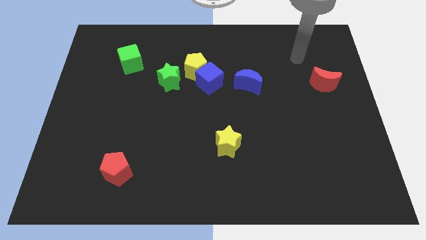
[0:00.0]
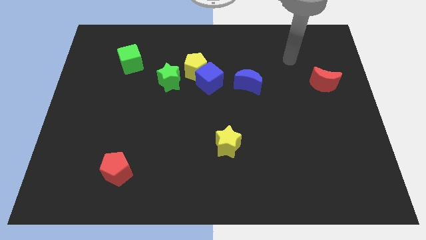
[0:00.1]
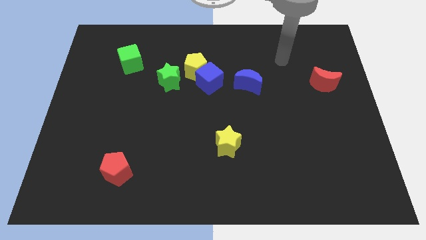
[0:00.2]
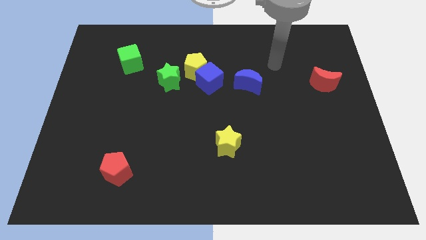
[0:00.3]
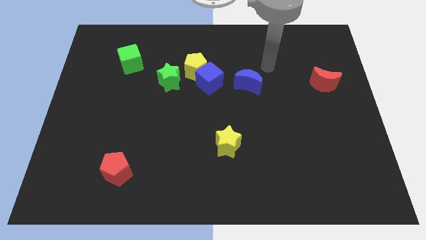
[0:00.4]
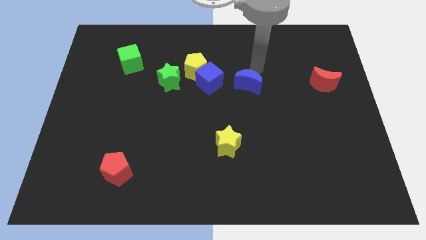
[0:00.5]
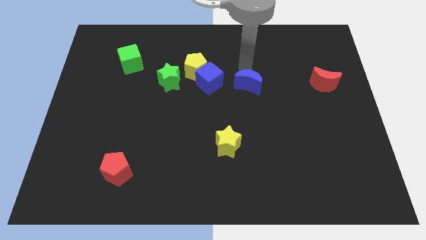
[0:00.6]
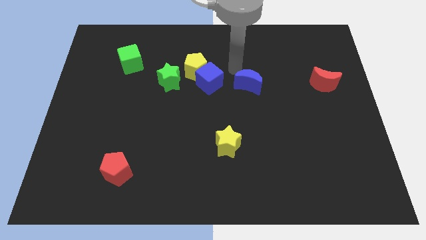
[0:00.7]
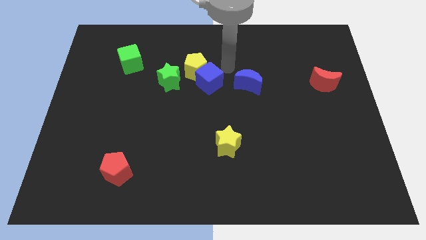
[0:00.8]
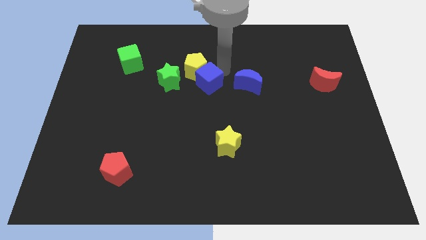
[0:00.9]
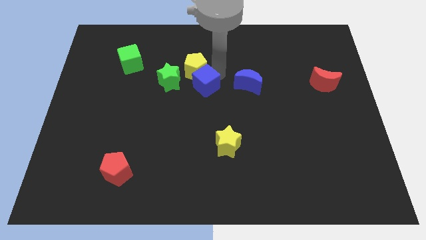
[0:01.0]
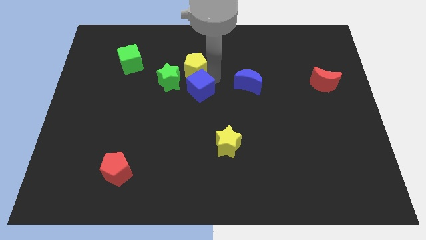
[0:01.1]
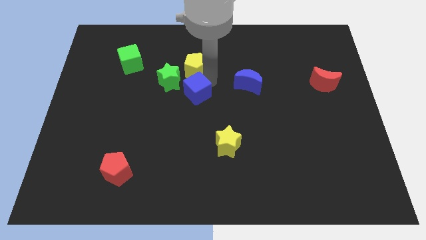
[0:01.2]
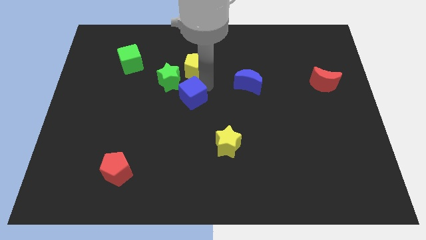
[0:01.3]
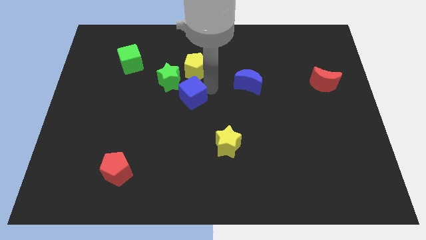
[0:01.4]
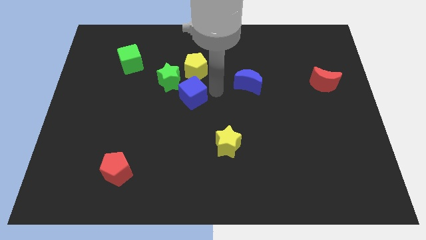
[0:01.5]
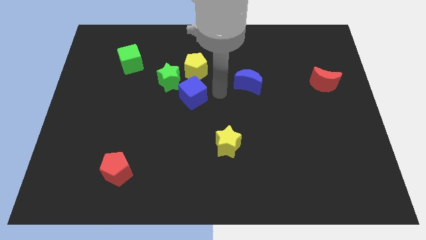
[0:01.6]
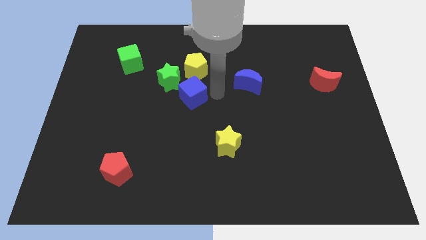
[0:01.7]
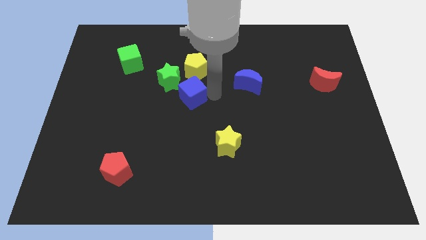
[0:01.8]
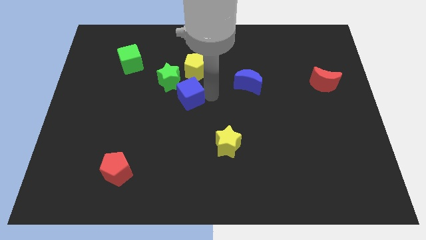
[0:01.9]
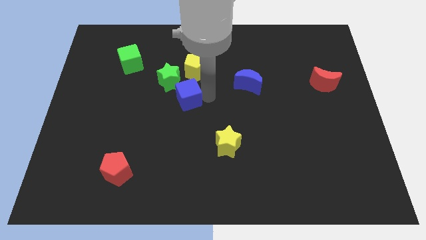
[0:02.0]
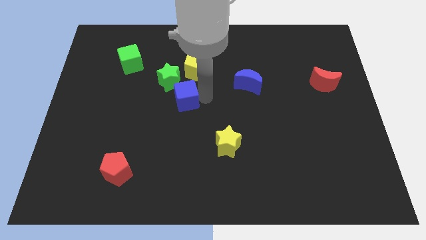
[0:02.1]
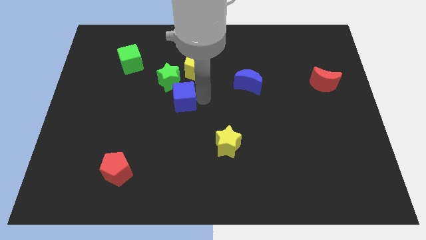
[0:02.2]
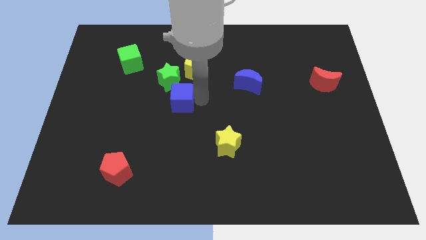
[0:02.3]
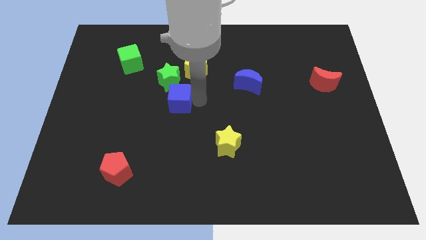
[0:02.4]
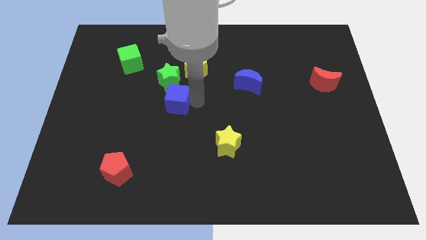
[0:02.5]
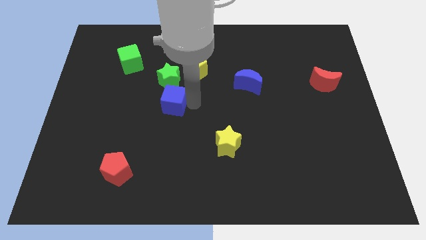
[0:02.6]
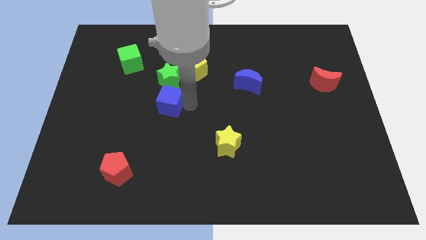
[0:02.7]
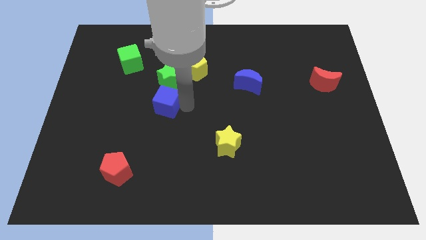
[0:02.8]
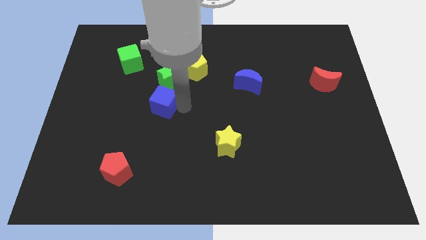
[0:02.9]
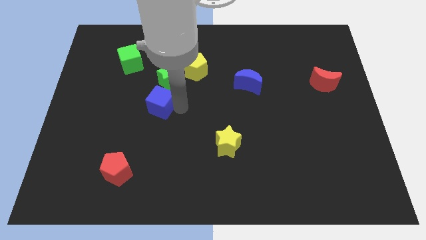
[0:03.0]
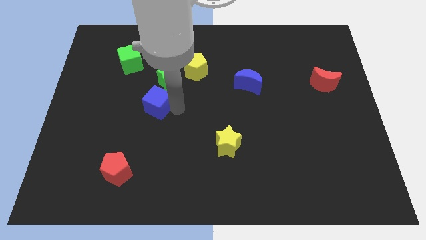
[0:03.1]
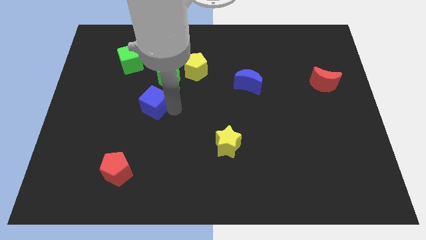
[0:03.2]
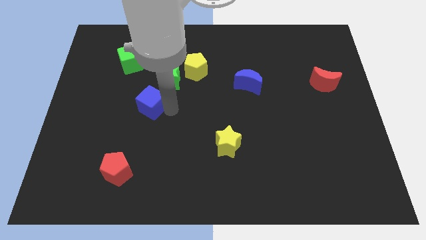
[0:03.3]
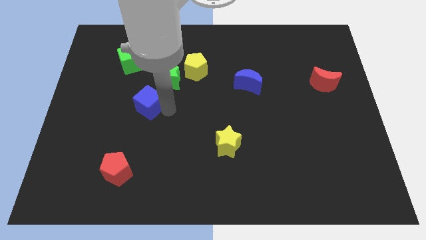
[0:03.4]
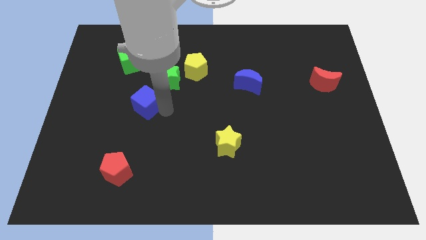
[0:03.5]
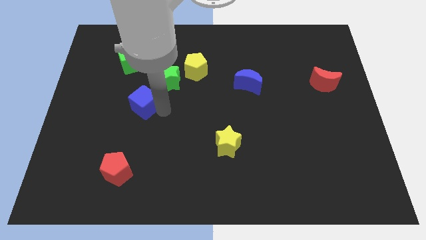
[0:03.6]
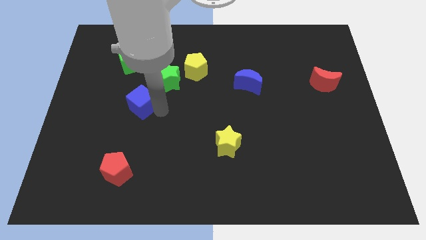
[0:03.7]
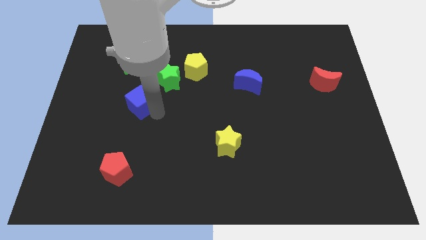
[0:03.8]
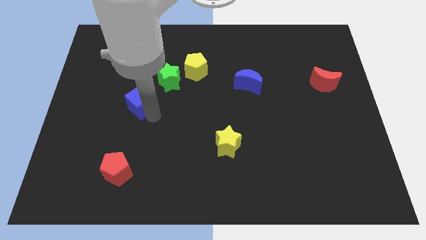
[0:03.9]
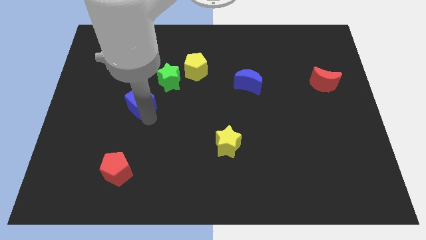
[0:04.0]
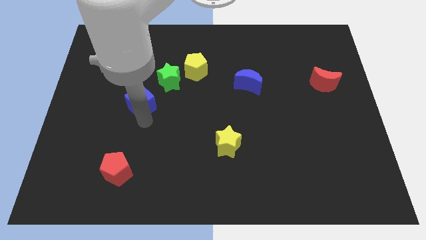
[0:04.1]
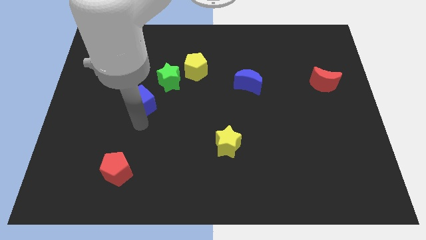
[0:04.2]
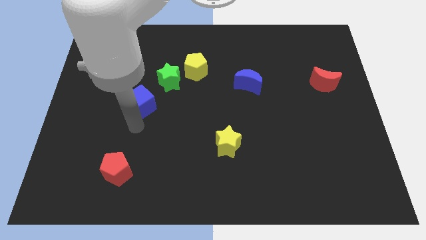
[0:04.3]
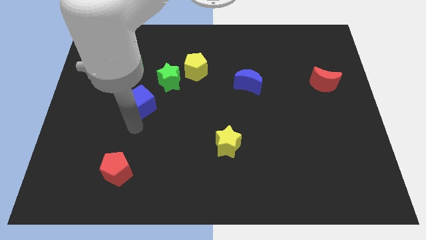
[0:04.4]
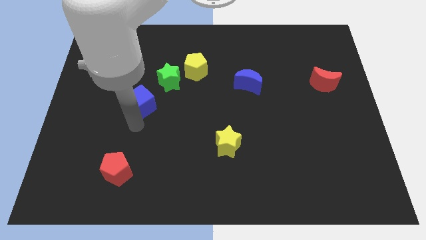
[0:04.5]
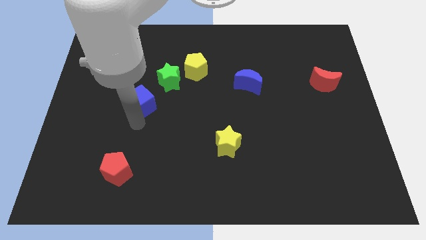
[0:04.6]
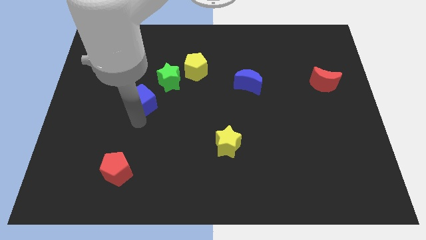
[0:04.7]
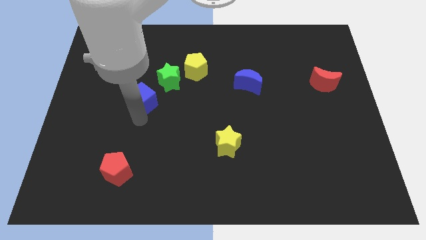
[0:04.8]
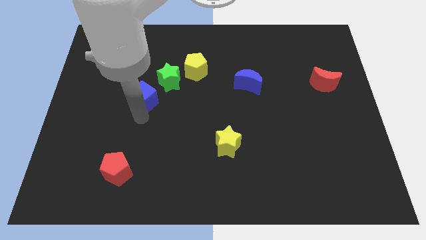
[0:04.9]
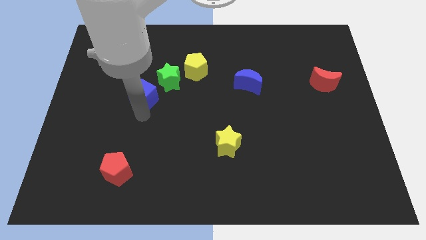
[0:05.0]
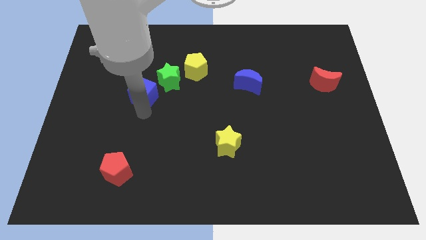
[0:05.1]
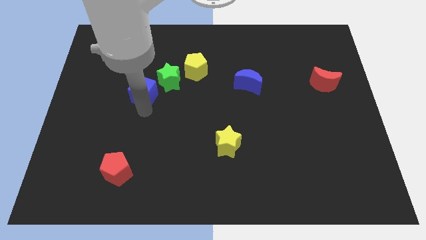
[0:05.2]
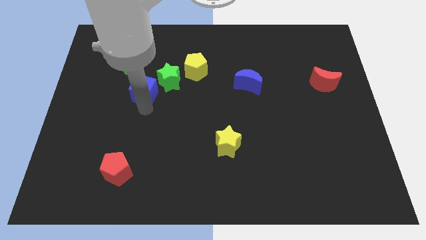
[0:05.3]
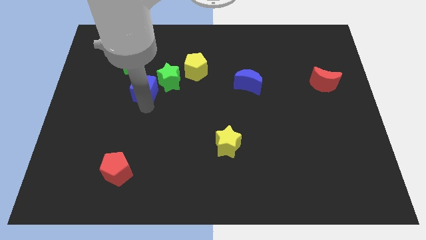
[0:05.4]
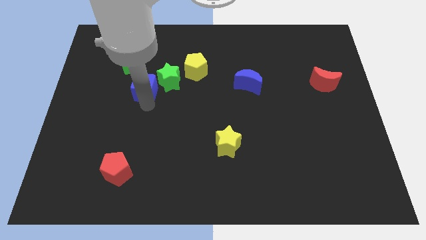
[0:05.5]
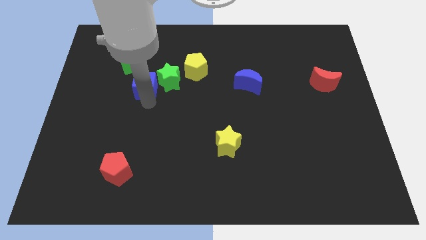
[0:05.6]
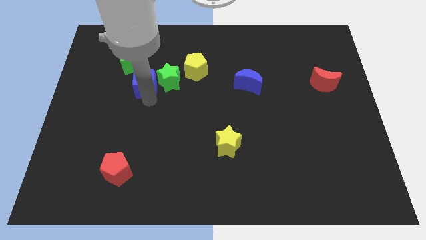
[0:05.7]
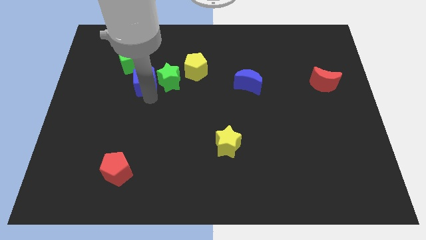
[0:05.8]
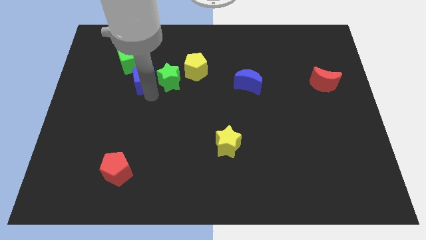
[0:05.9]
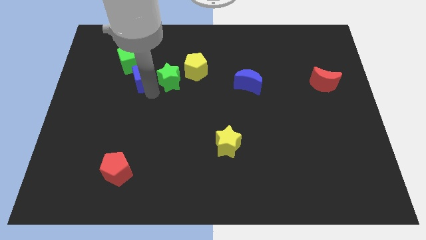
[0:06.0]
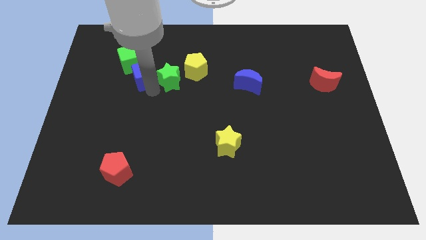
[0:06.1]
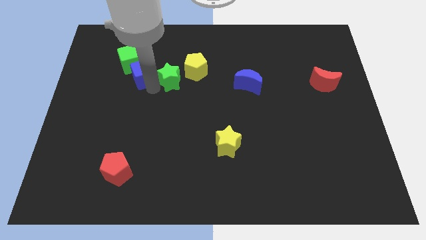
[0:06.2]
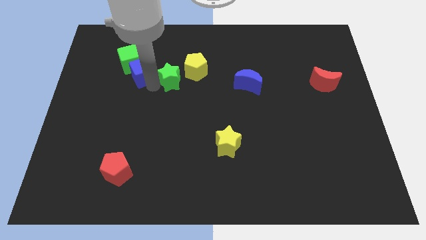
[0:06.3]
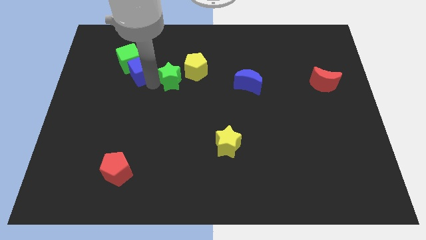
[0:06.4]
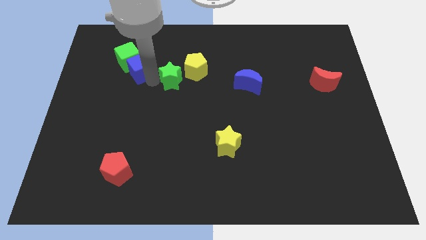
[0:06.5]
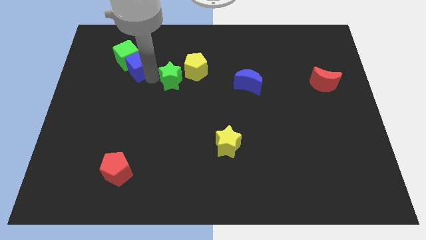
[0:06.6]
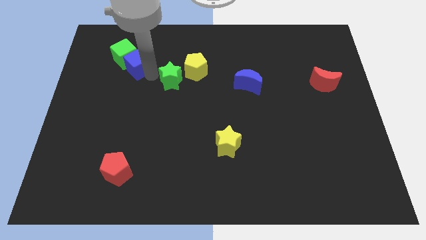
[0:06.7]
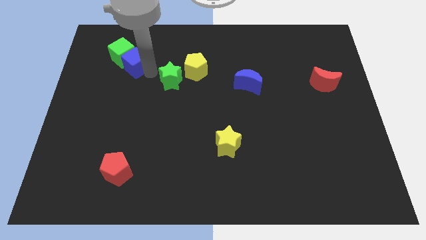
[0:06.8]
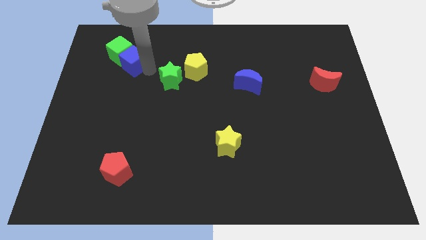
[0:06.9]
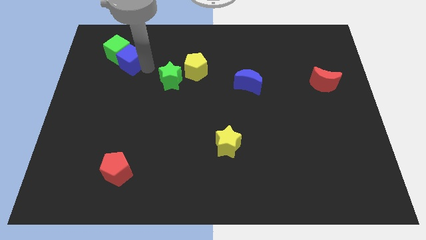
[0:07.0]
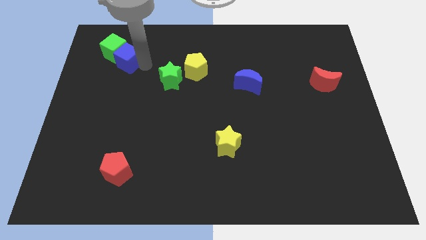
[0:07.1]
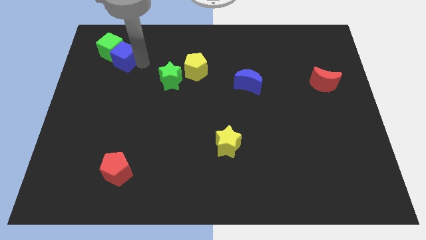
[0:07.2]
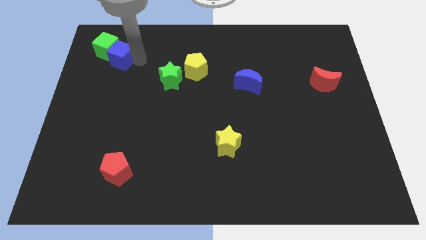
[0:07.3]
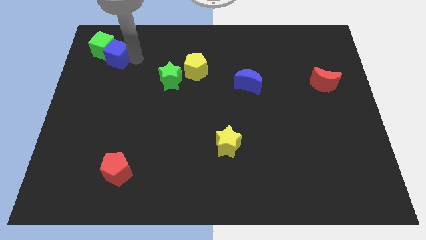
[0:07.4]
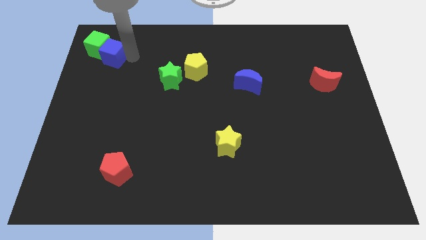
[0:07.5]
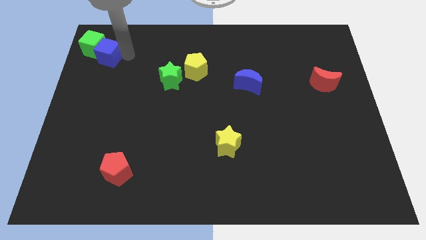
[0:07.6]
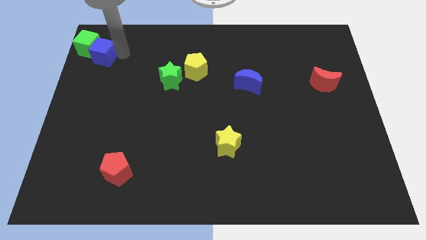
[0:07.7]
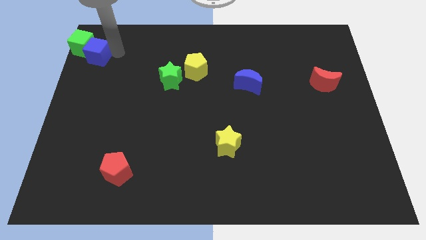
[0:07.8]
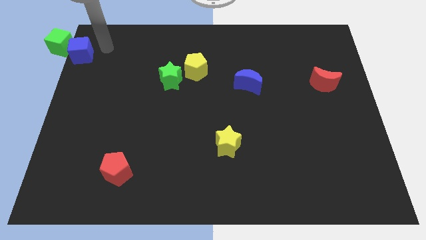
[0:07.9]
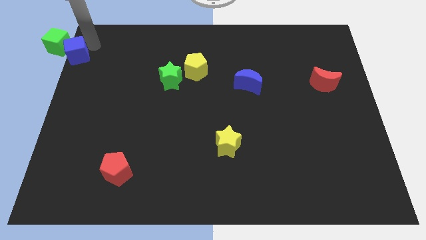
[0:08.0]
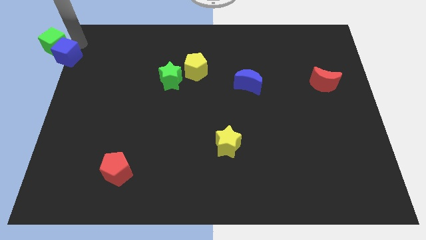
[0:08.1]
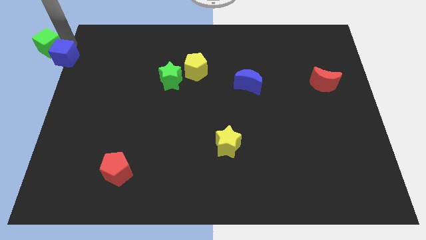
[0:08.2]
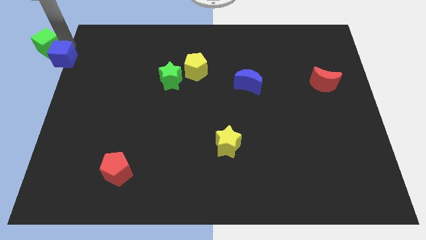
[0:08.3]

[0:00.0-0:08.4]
put the blue cube to the center left
